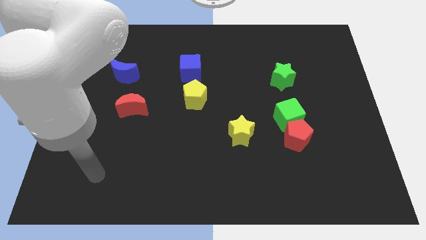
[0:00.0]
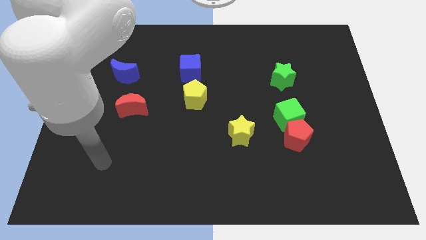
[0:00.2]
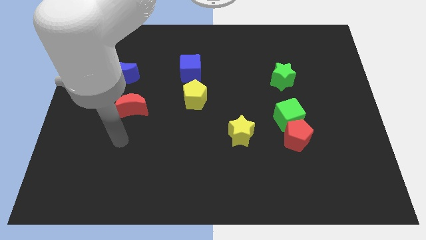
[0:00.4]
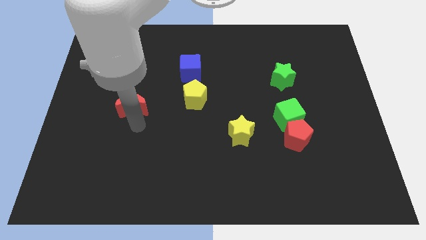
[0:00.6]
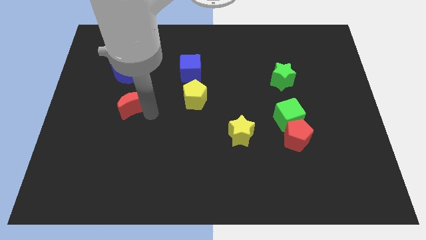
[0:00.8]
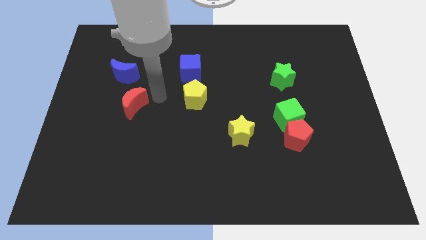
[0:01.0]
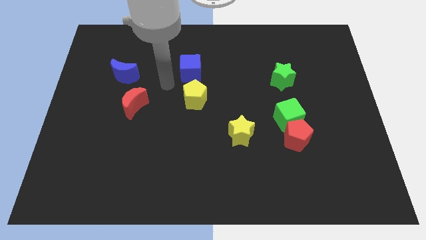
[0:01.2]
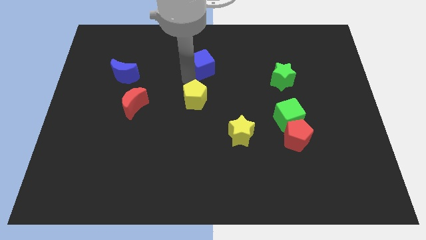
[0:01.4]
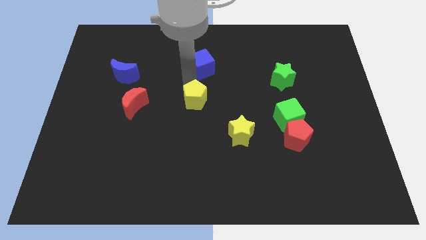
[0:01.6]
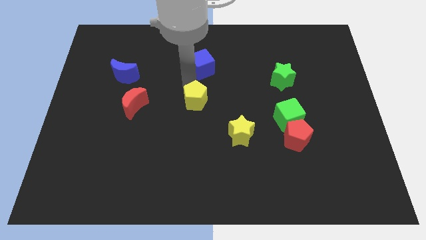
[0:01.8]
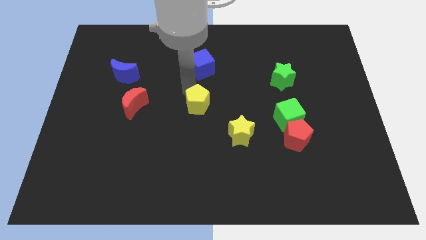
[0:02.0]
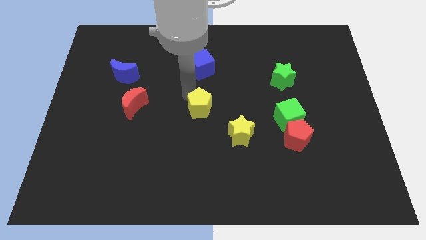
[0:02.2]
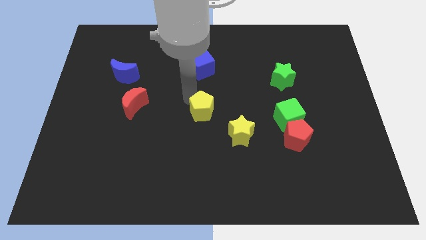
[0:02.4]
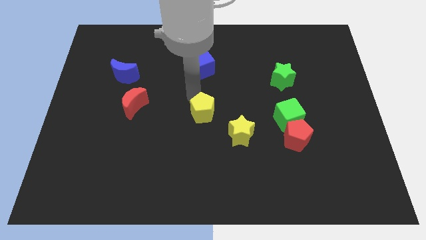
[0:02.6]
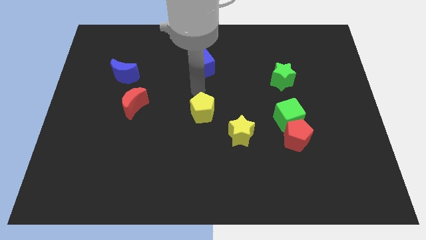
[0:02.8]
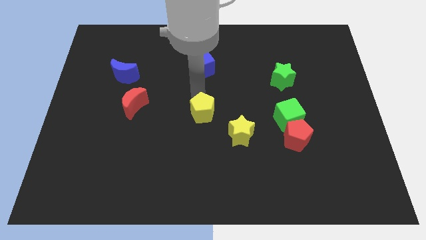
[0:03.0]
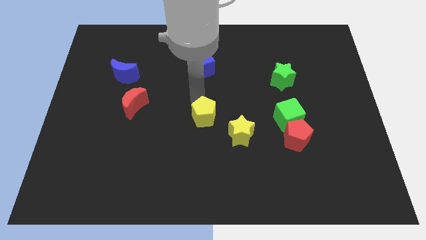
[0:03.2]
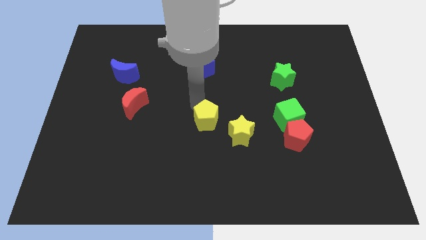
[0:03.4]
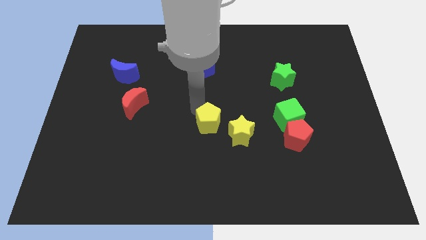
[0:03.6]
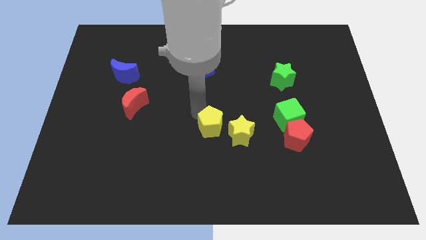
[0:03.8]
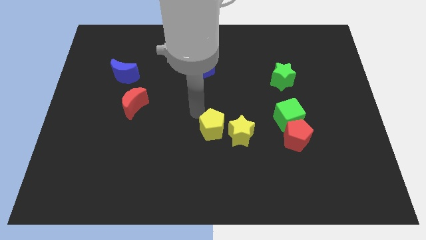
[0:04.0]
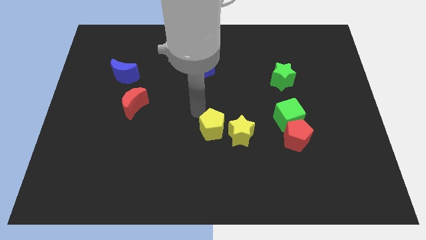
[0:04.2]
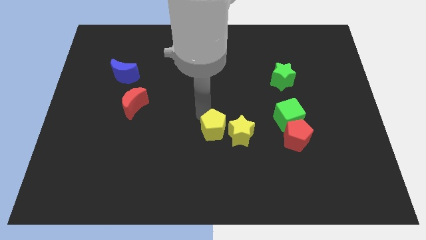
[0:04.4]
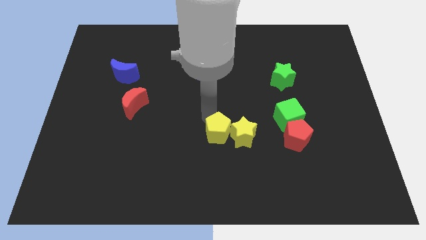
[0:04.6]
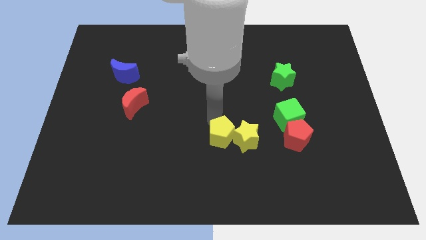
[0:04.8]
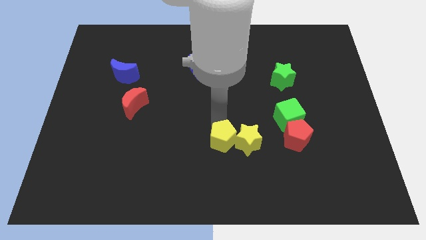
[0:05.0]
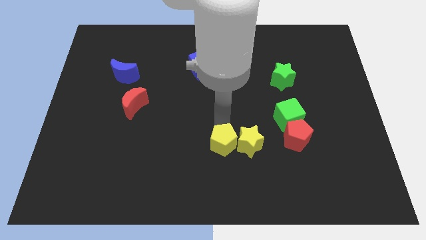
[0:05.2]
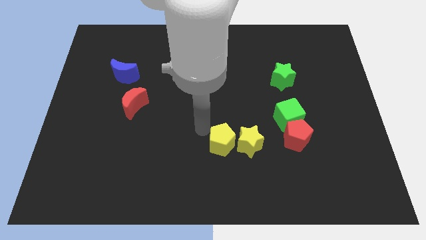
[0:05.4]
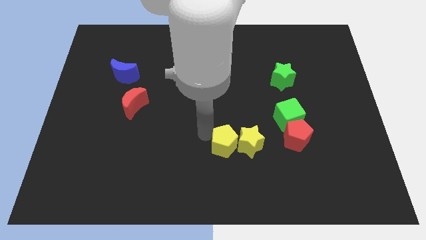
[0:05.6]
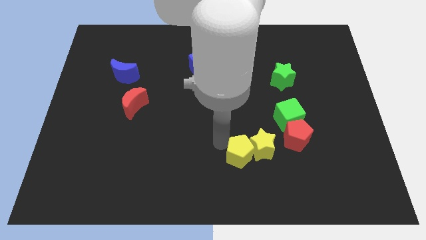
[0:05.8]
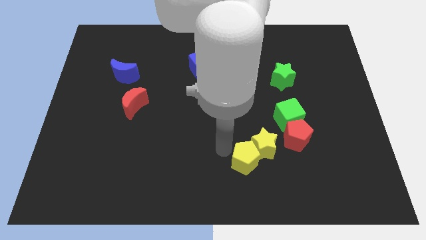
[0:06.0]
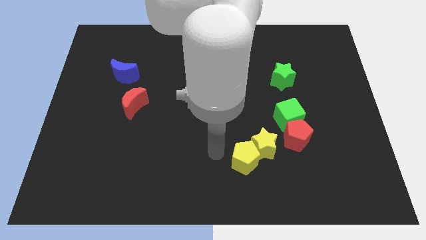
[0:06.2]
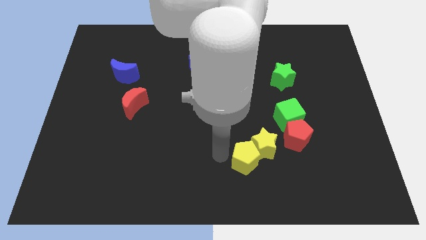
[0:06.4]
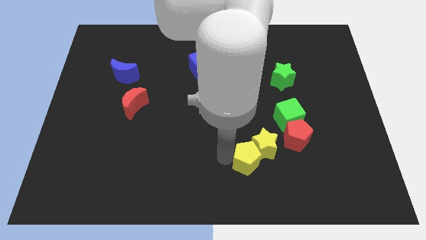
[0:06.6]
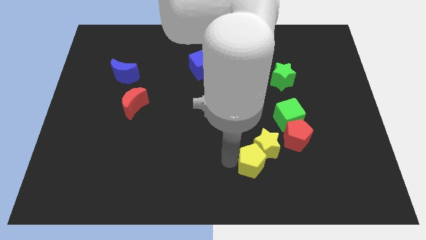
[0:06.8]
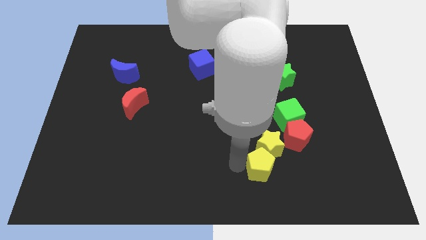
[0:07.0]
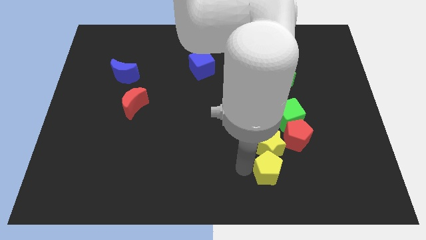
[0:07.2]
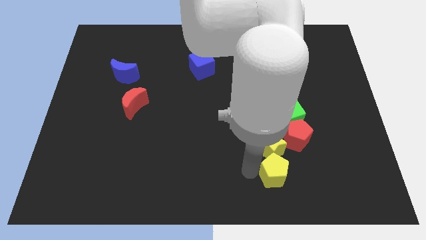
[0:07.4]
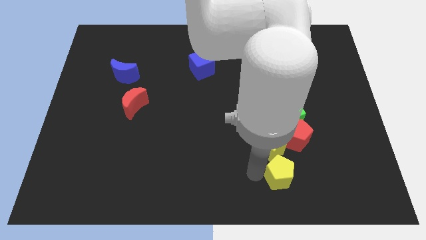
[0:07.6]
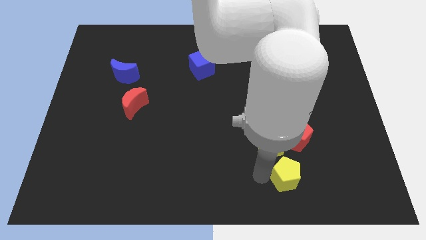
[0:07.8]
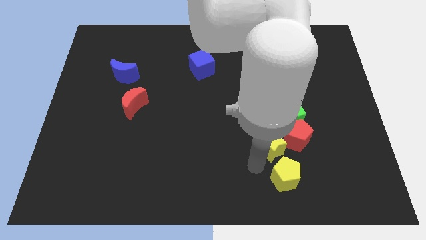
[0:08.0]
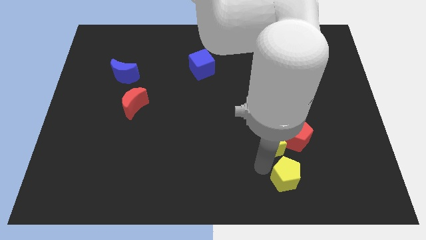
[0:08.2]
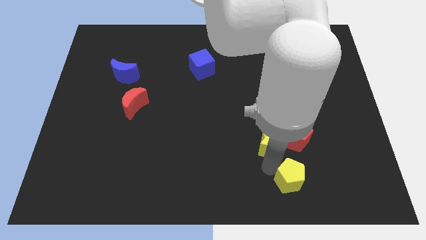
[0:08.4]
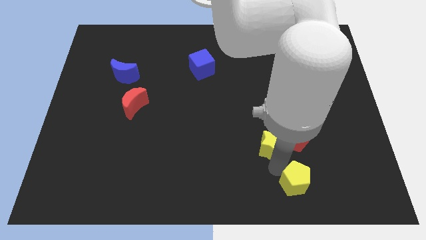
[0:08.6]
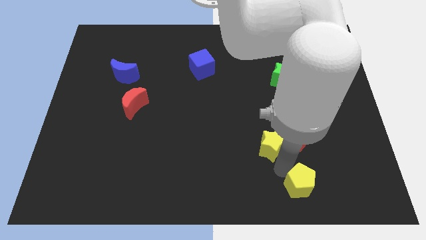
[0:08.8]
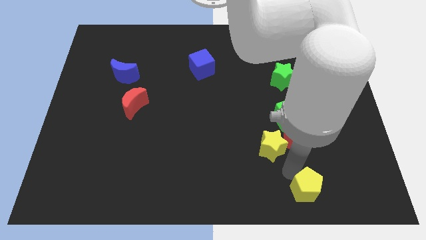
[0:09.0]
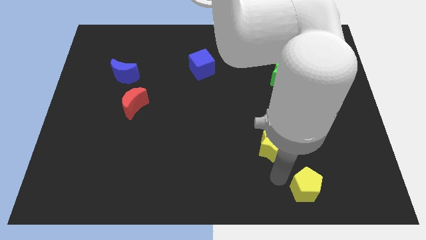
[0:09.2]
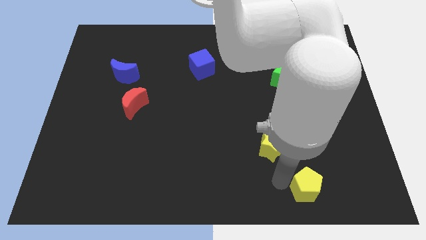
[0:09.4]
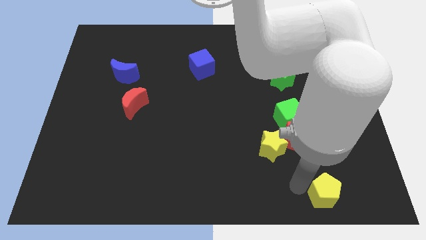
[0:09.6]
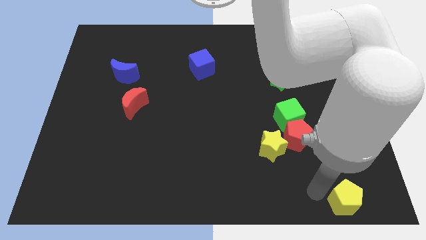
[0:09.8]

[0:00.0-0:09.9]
move the yellow pentagon to the lower right corner

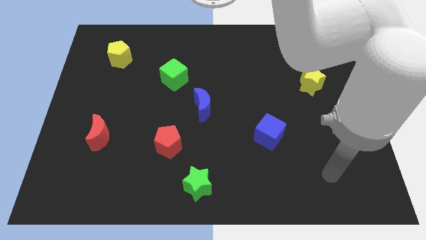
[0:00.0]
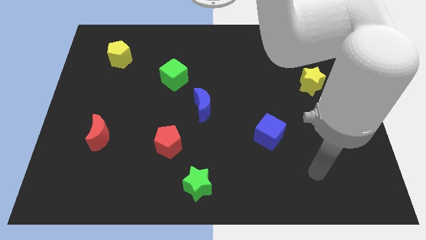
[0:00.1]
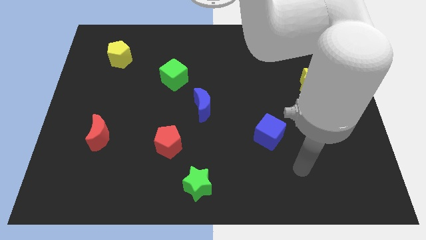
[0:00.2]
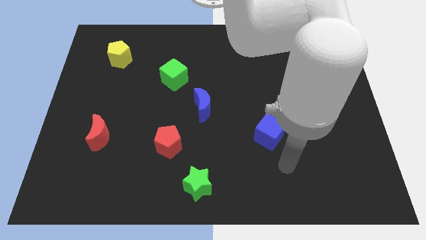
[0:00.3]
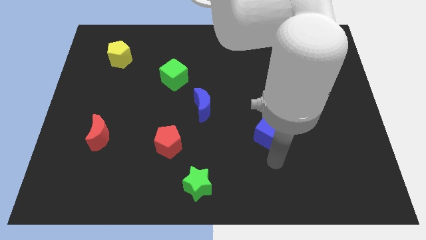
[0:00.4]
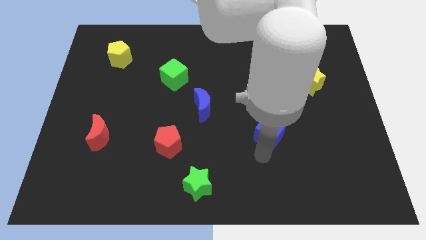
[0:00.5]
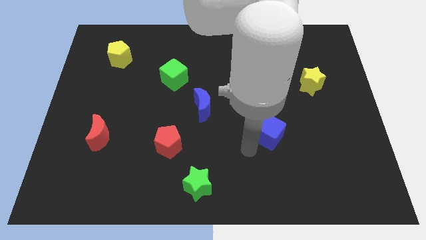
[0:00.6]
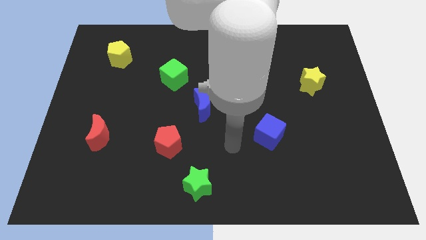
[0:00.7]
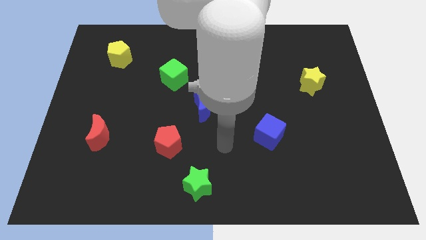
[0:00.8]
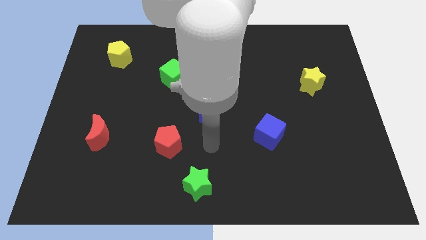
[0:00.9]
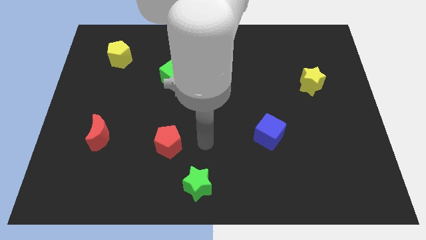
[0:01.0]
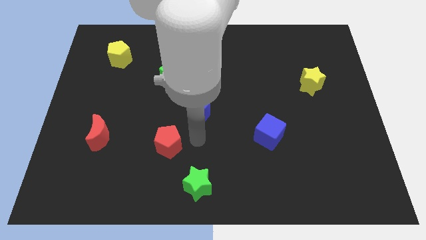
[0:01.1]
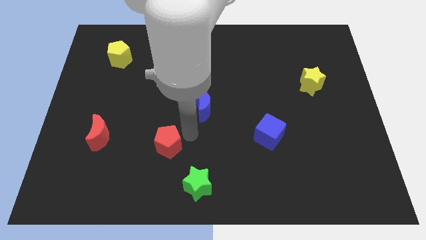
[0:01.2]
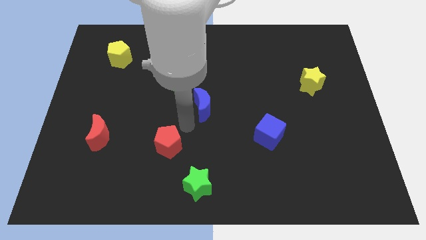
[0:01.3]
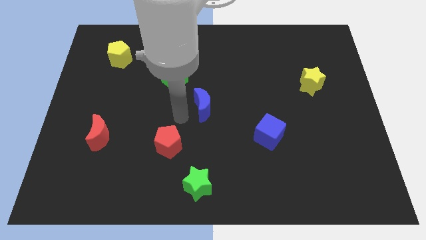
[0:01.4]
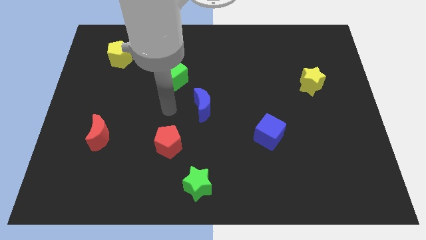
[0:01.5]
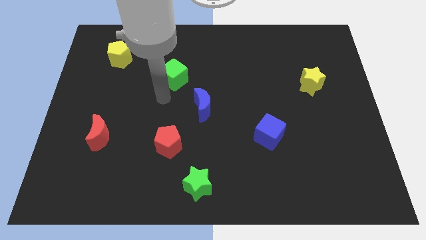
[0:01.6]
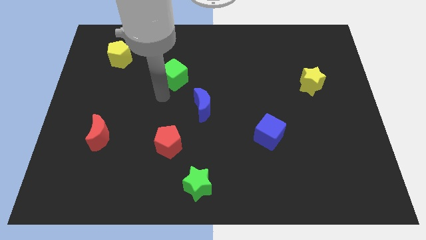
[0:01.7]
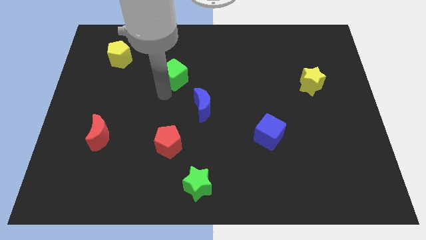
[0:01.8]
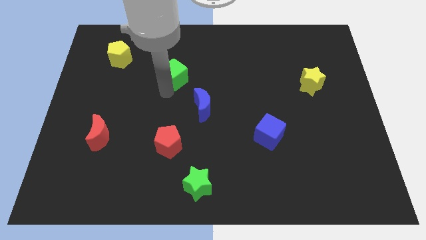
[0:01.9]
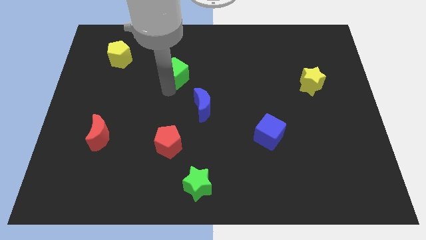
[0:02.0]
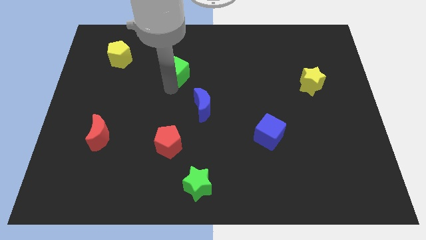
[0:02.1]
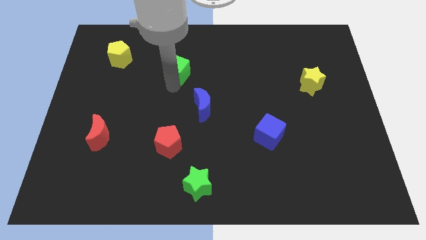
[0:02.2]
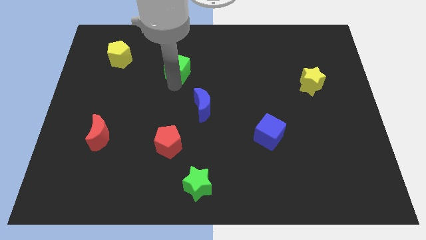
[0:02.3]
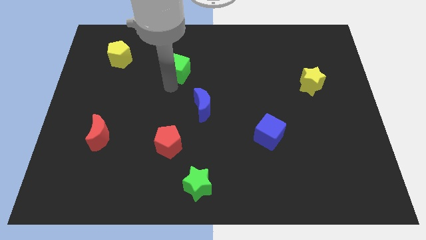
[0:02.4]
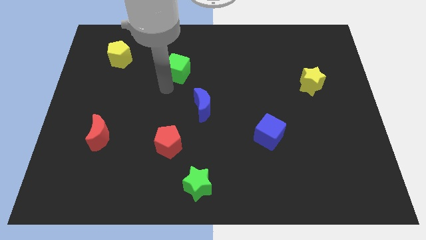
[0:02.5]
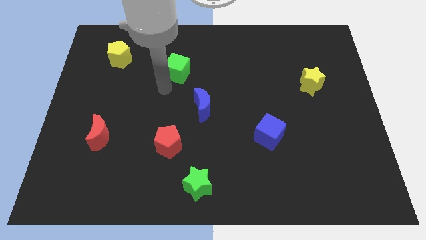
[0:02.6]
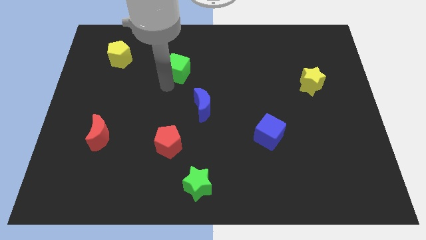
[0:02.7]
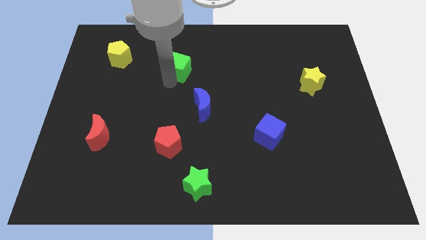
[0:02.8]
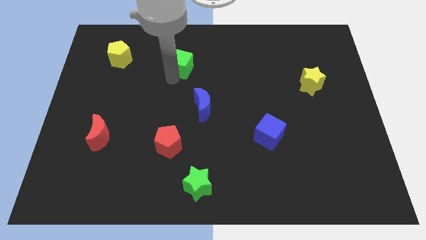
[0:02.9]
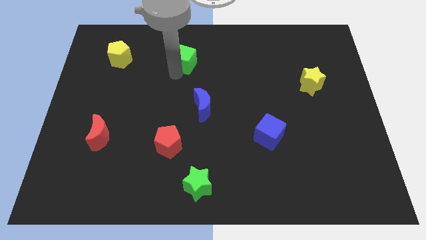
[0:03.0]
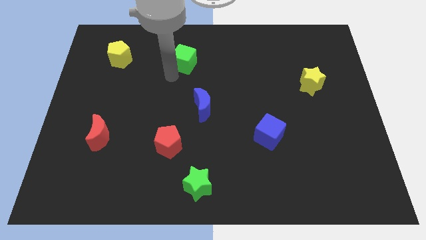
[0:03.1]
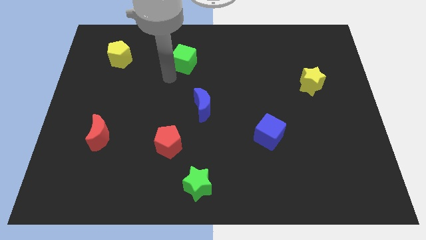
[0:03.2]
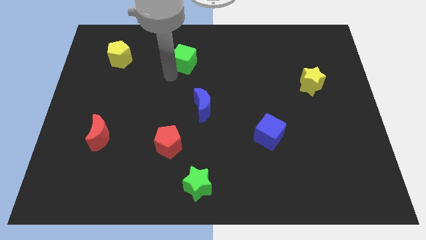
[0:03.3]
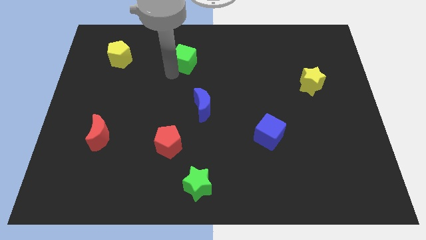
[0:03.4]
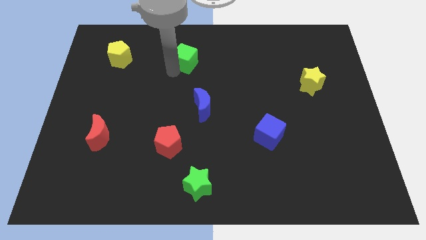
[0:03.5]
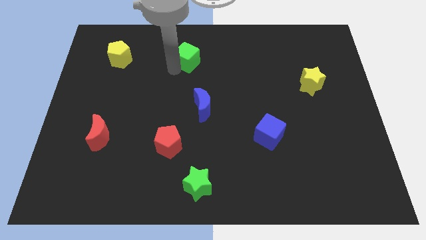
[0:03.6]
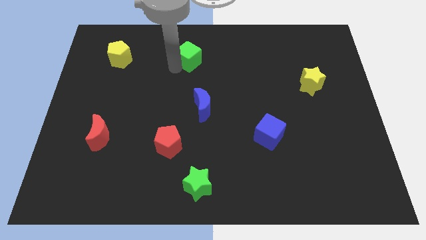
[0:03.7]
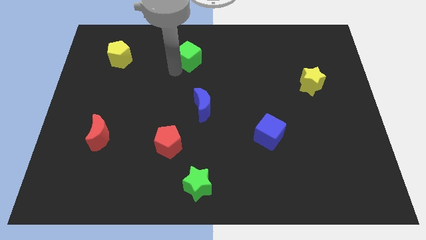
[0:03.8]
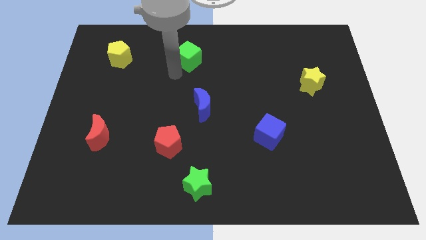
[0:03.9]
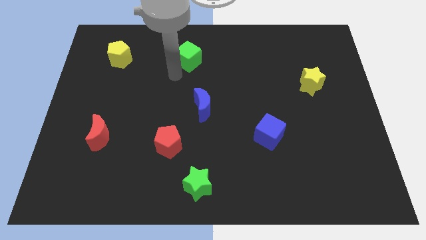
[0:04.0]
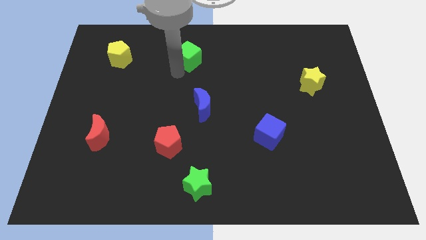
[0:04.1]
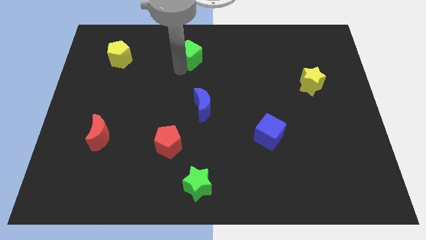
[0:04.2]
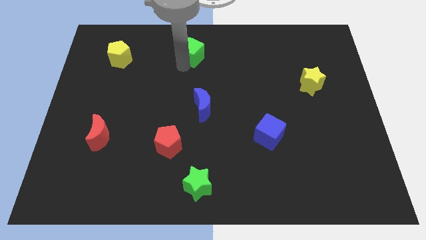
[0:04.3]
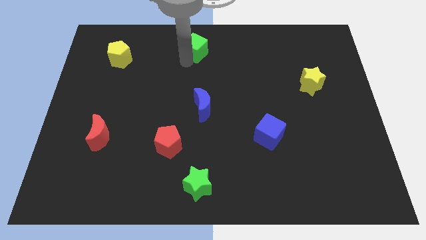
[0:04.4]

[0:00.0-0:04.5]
put the green cube to the towards your base
